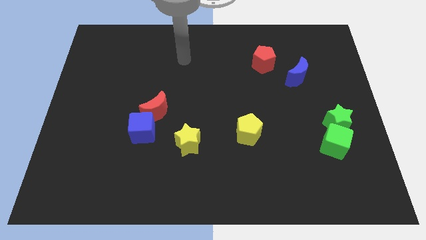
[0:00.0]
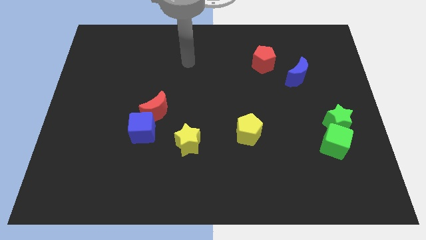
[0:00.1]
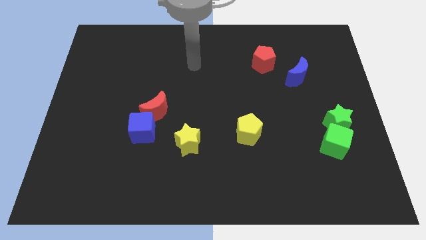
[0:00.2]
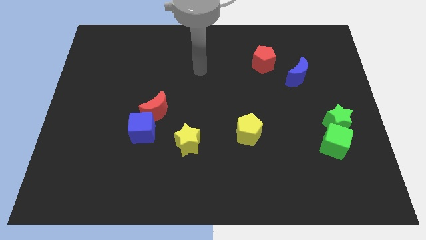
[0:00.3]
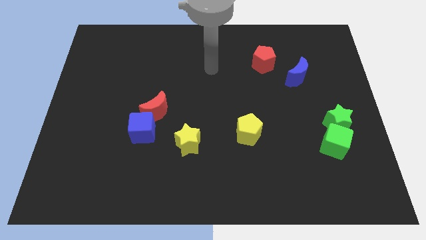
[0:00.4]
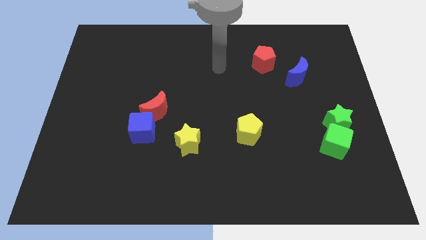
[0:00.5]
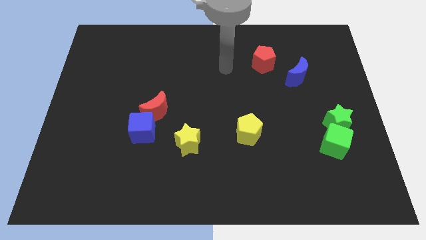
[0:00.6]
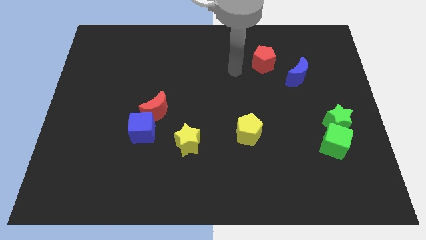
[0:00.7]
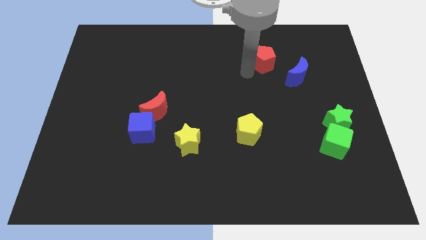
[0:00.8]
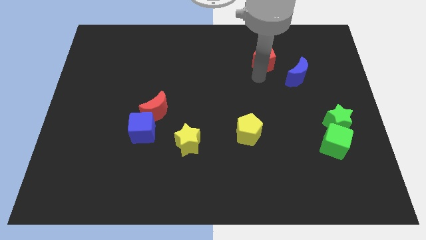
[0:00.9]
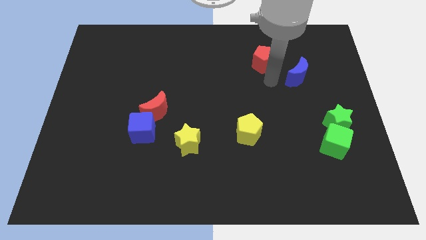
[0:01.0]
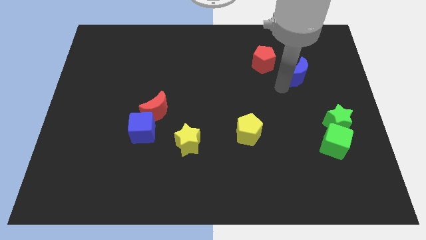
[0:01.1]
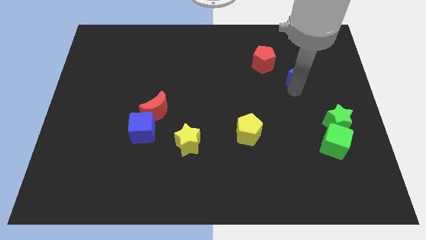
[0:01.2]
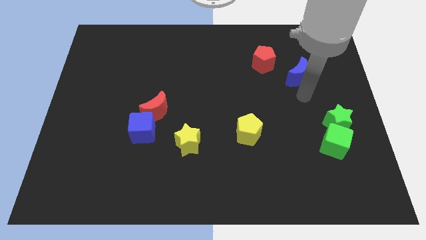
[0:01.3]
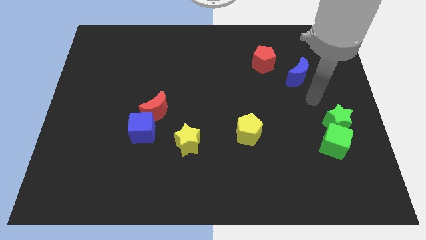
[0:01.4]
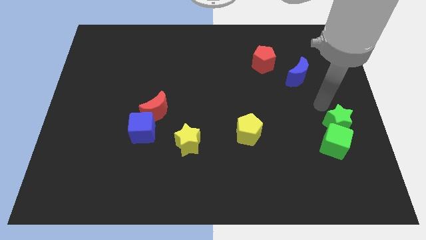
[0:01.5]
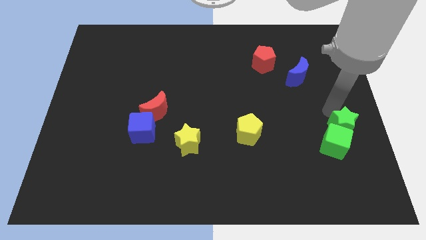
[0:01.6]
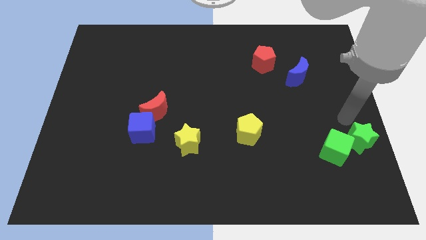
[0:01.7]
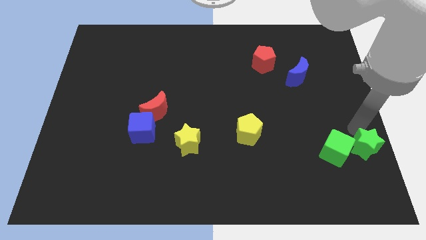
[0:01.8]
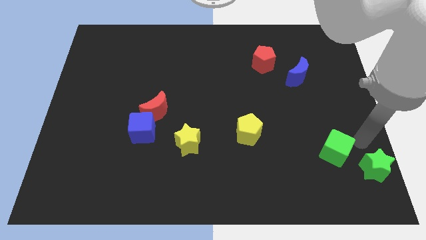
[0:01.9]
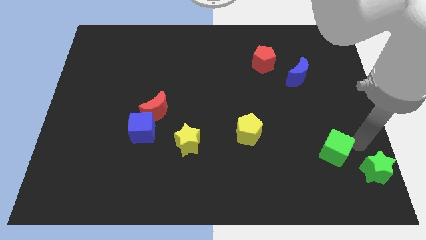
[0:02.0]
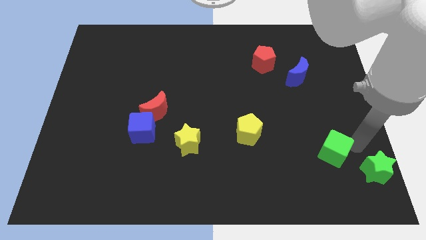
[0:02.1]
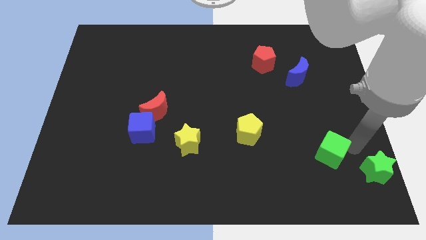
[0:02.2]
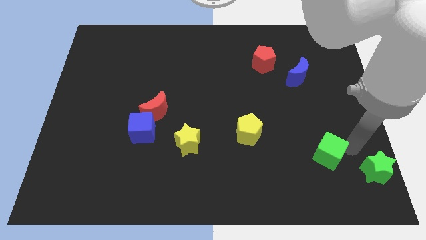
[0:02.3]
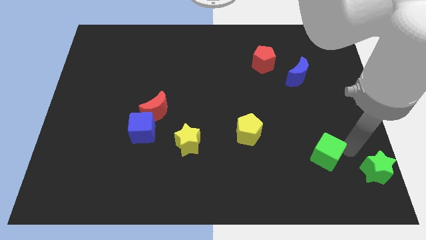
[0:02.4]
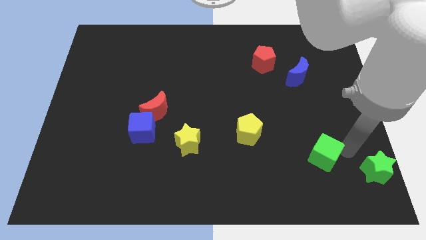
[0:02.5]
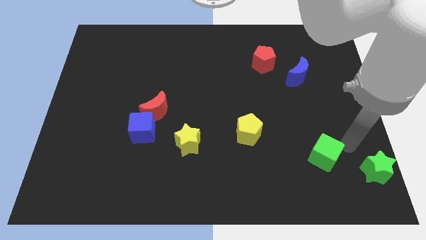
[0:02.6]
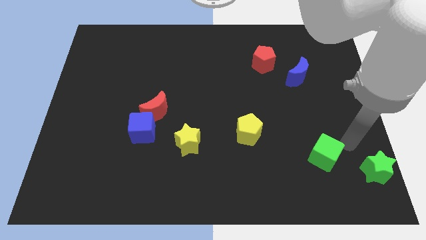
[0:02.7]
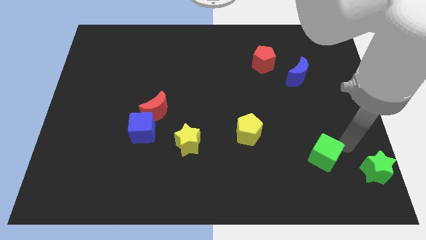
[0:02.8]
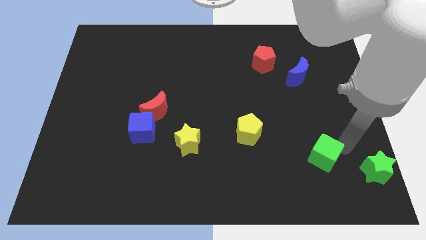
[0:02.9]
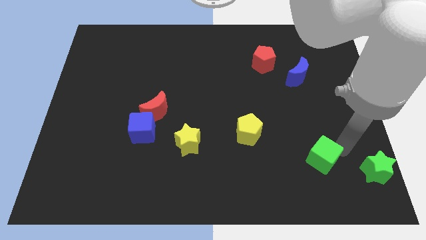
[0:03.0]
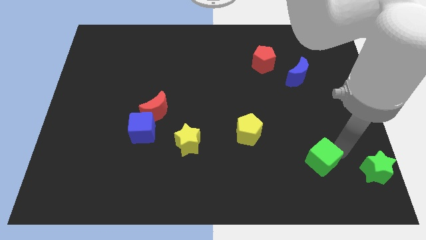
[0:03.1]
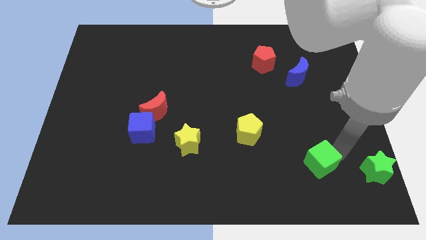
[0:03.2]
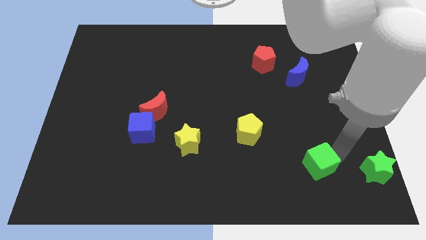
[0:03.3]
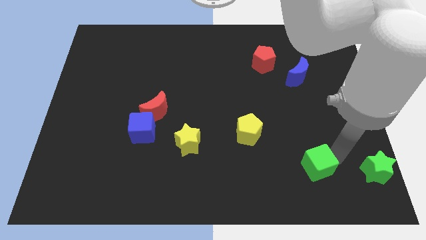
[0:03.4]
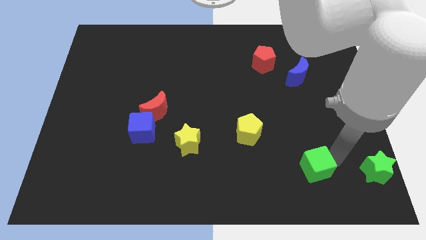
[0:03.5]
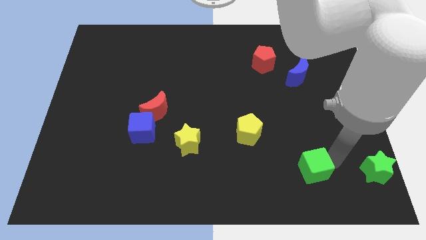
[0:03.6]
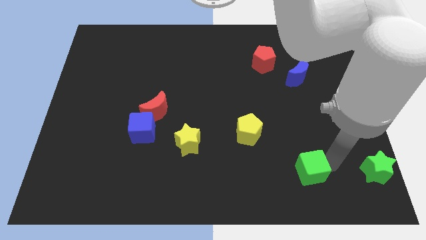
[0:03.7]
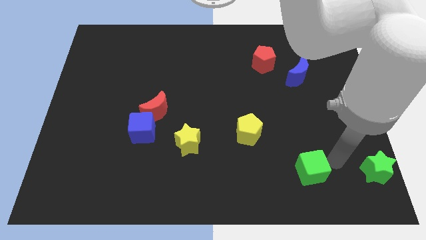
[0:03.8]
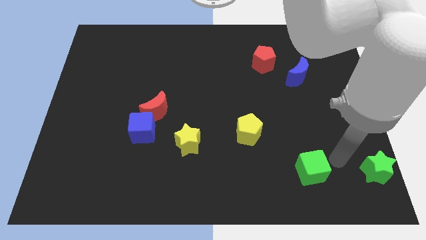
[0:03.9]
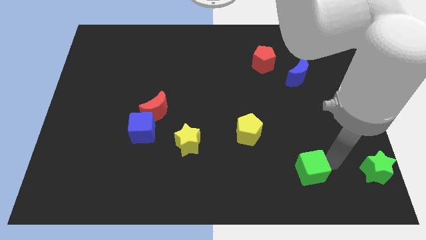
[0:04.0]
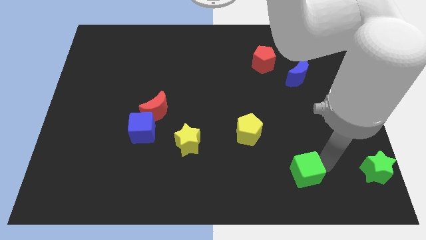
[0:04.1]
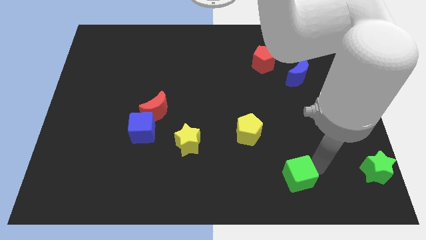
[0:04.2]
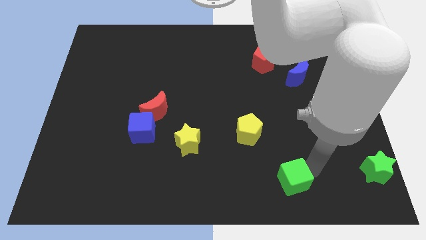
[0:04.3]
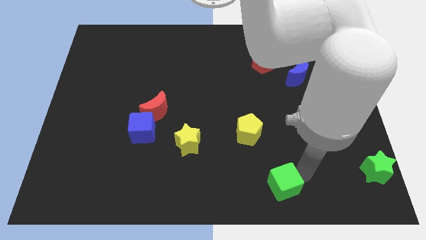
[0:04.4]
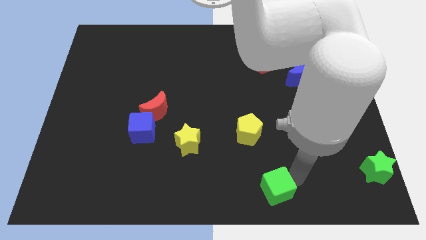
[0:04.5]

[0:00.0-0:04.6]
push the green cube to the bottom
